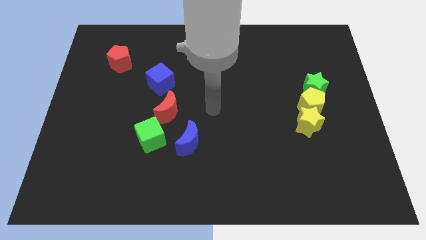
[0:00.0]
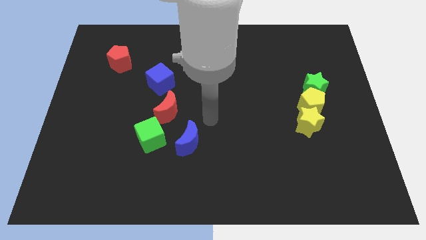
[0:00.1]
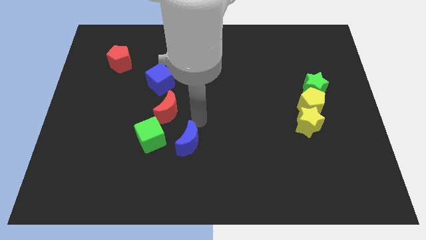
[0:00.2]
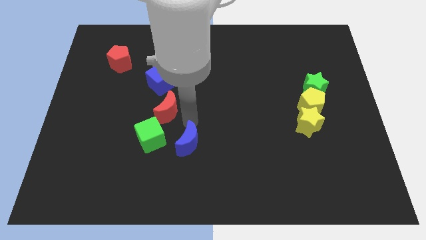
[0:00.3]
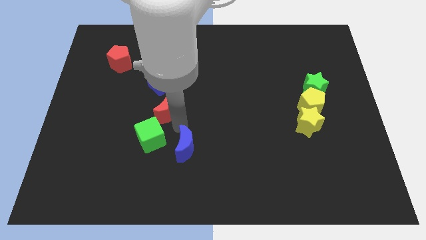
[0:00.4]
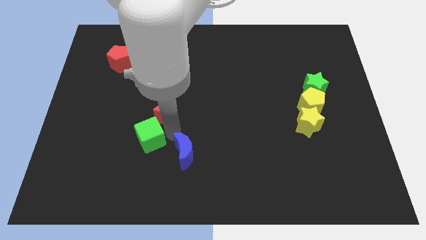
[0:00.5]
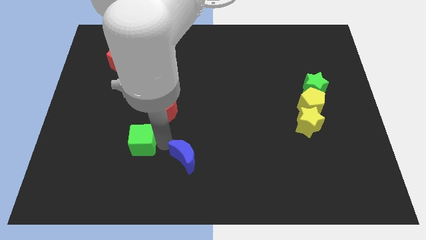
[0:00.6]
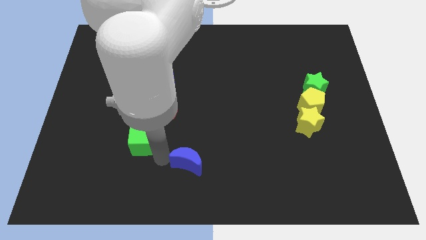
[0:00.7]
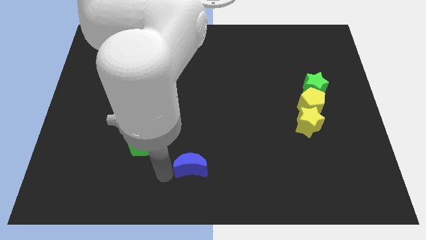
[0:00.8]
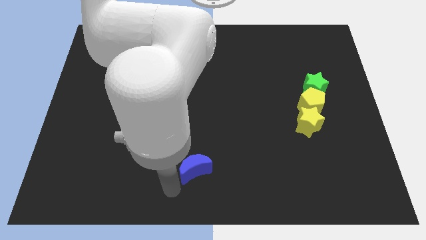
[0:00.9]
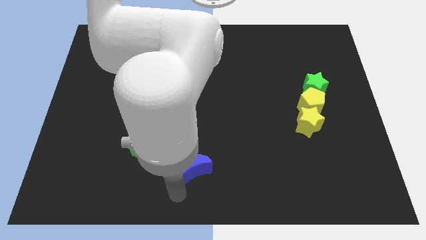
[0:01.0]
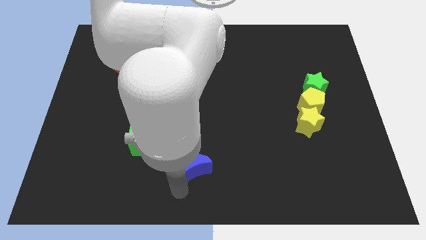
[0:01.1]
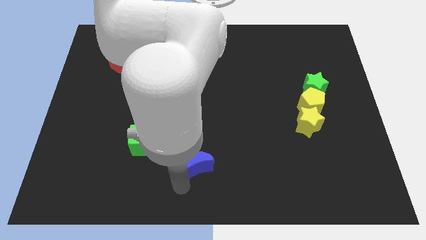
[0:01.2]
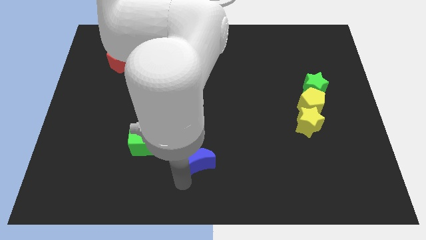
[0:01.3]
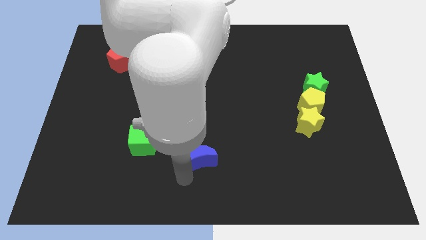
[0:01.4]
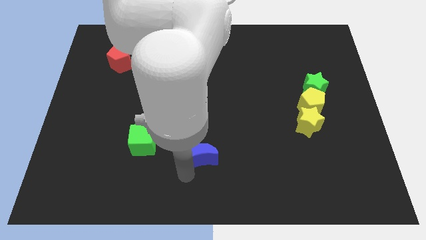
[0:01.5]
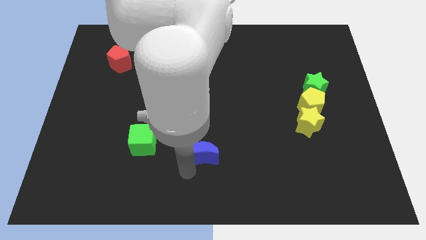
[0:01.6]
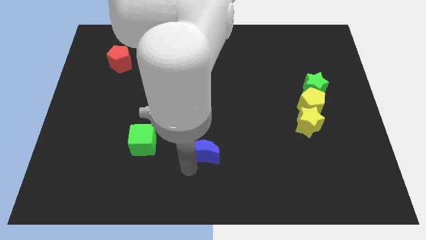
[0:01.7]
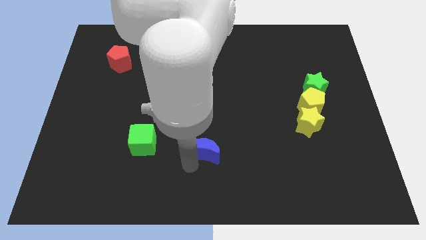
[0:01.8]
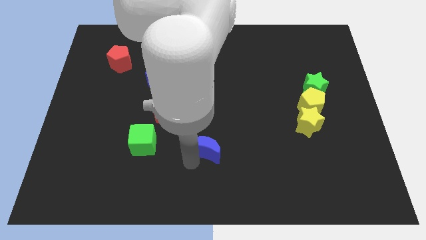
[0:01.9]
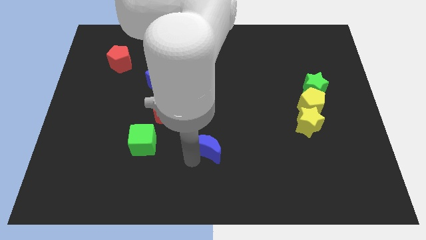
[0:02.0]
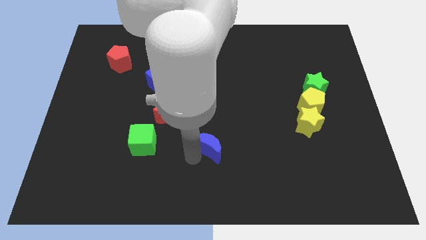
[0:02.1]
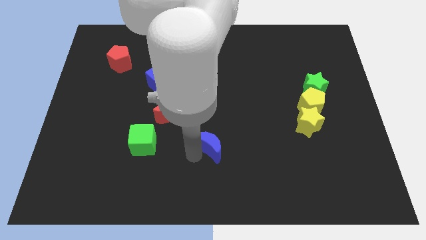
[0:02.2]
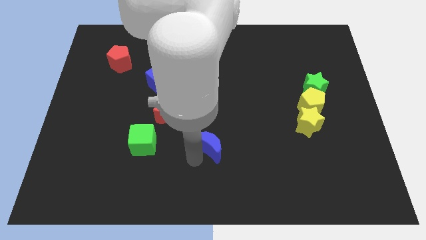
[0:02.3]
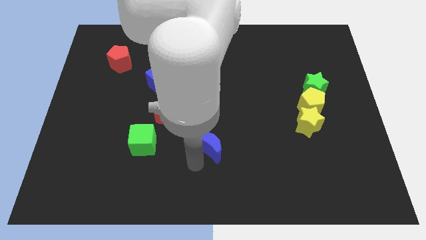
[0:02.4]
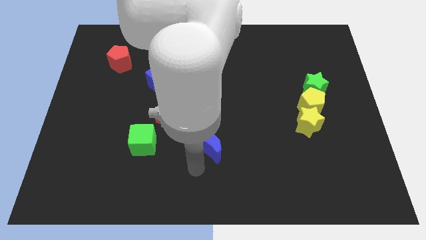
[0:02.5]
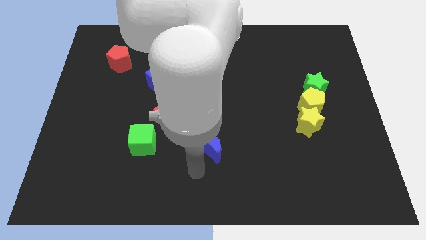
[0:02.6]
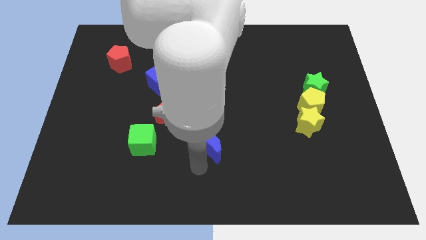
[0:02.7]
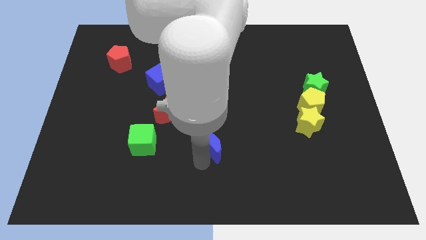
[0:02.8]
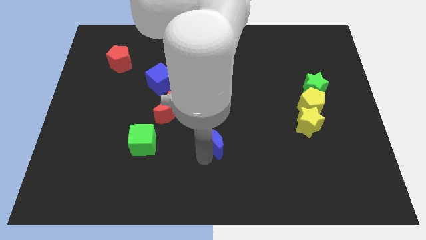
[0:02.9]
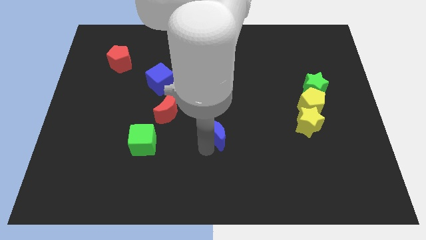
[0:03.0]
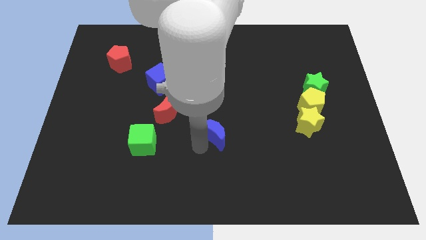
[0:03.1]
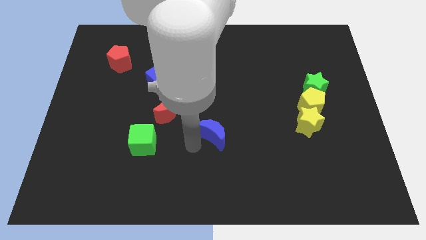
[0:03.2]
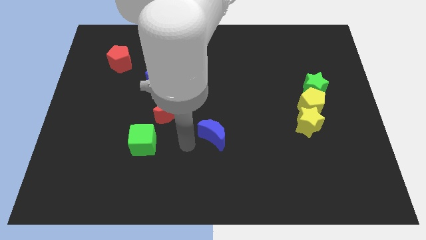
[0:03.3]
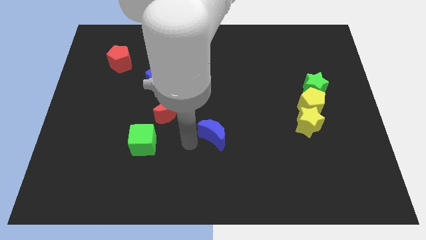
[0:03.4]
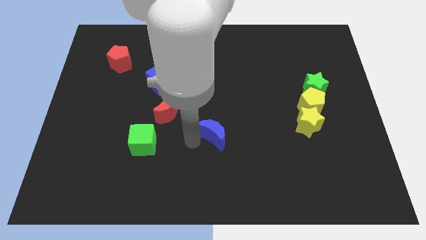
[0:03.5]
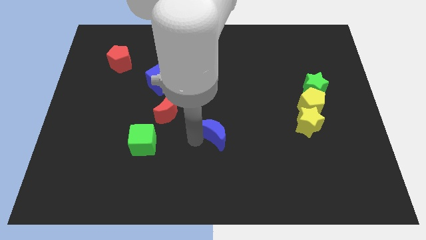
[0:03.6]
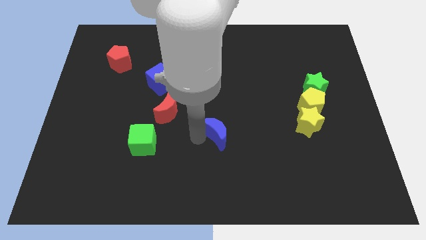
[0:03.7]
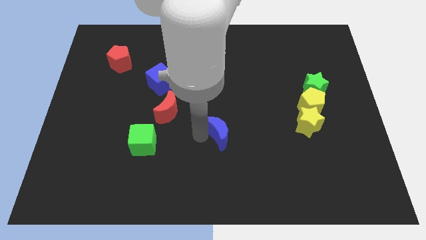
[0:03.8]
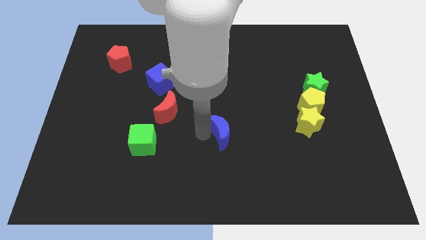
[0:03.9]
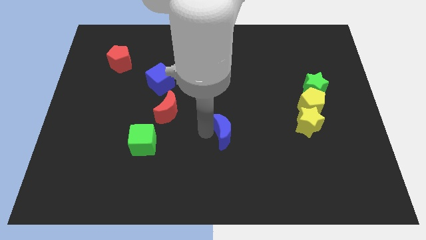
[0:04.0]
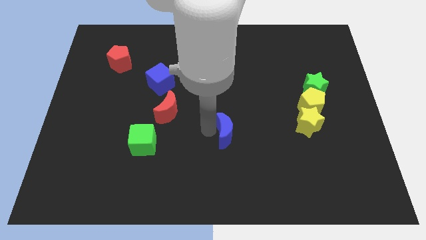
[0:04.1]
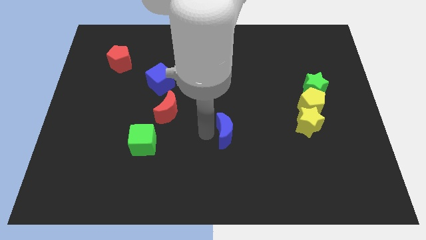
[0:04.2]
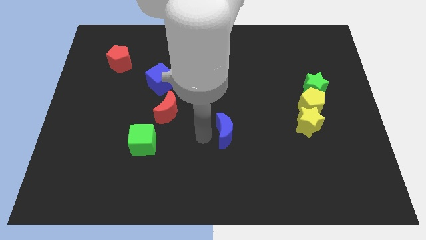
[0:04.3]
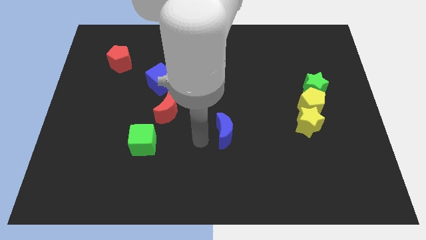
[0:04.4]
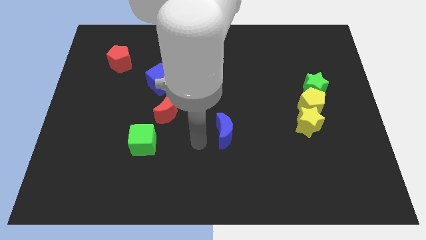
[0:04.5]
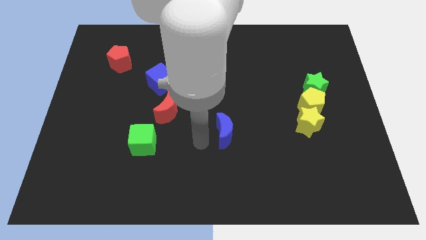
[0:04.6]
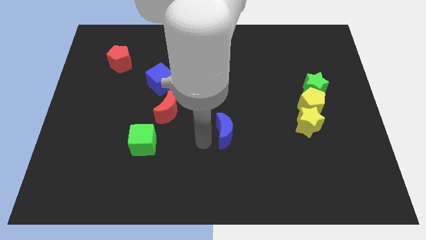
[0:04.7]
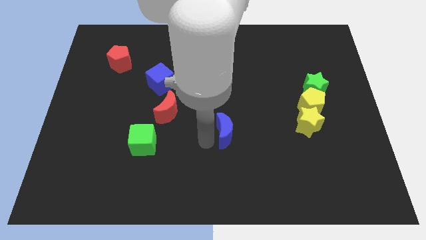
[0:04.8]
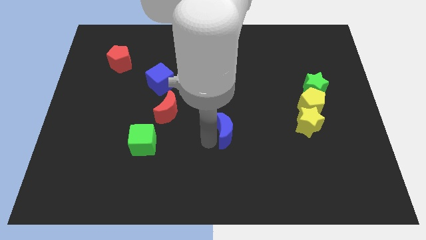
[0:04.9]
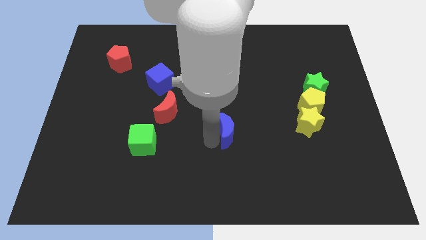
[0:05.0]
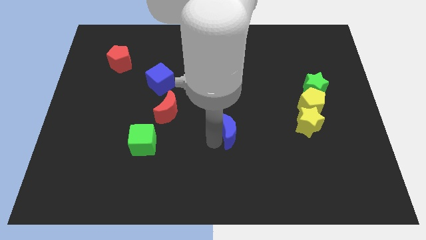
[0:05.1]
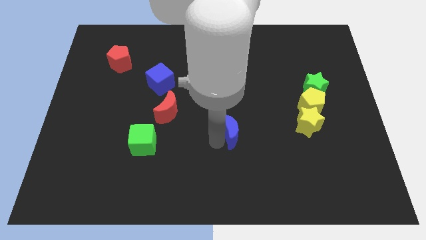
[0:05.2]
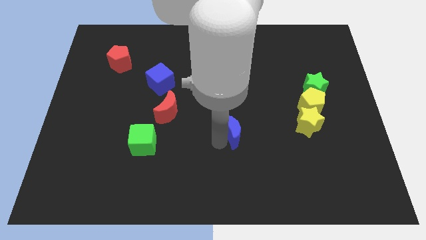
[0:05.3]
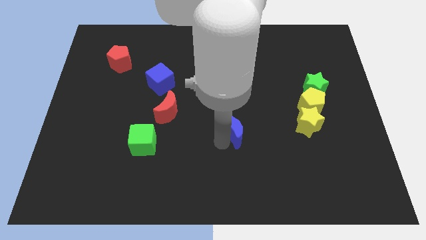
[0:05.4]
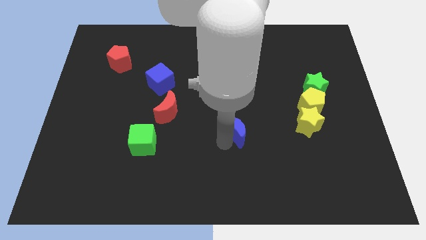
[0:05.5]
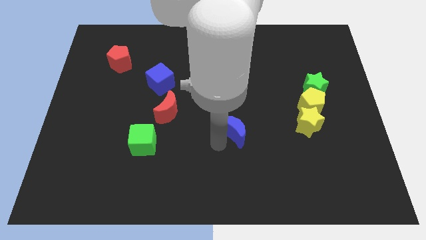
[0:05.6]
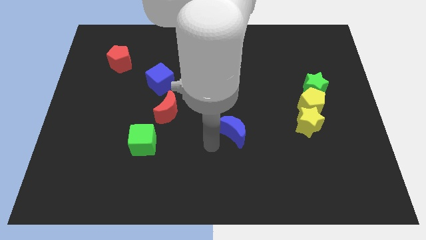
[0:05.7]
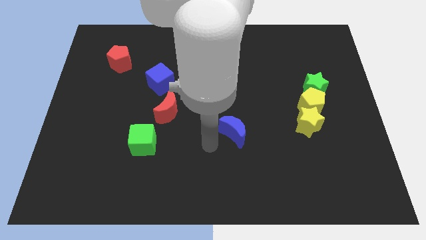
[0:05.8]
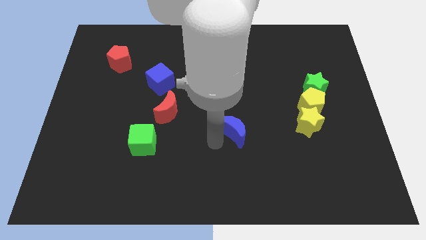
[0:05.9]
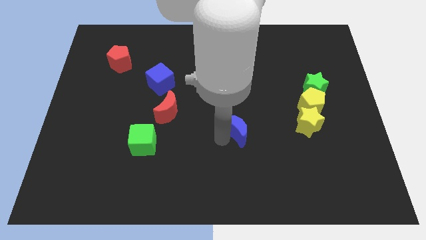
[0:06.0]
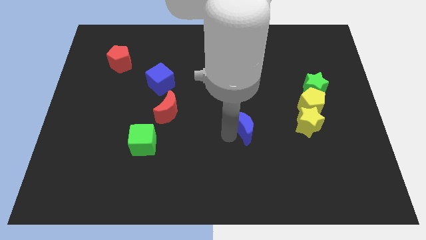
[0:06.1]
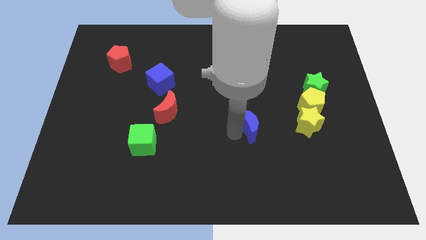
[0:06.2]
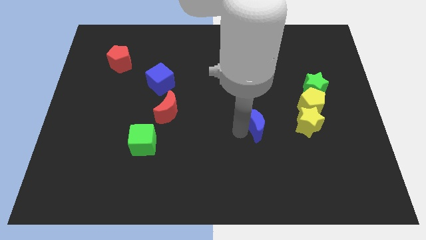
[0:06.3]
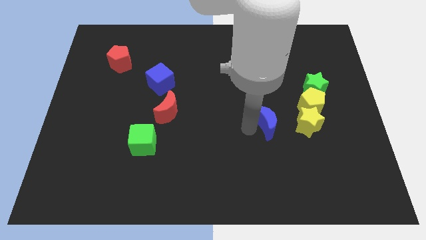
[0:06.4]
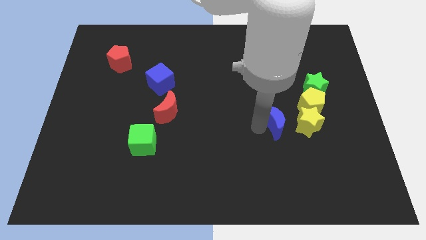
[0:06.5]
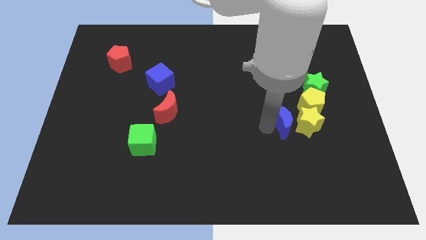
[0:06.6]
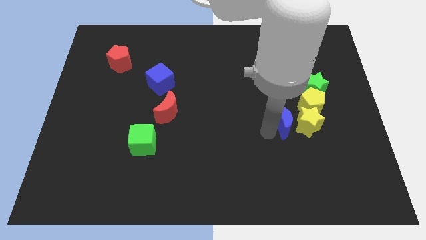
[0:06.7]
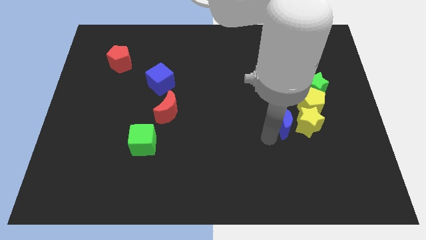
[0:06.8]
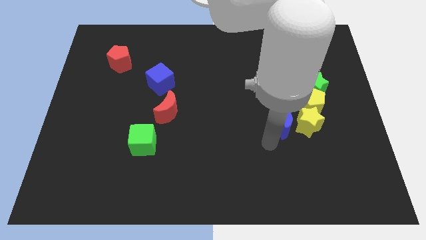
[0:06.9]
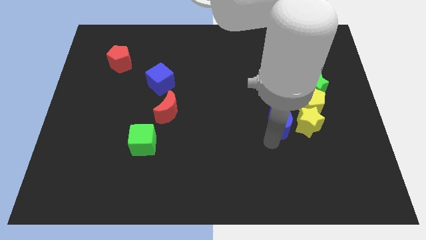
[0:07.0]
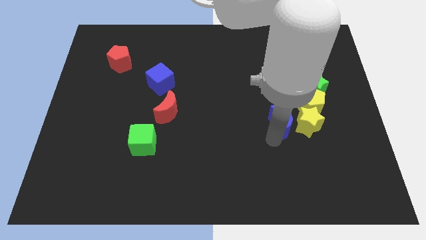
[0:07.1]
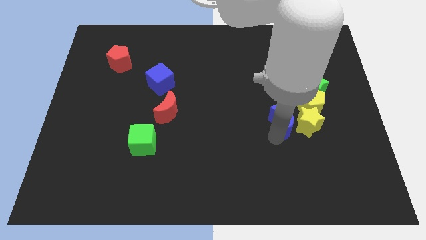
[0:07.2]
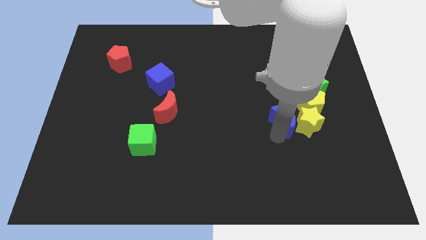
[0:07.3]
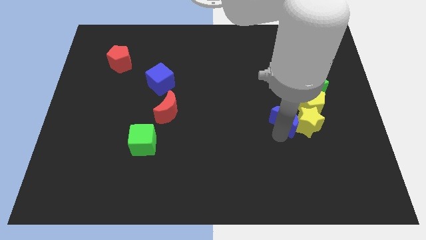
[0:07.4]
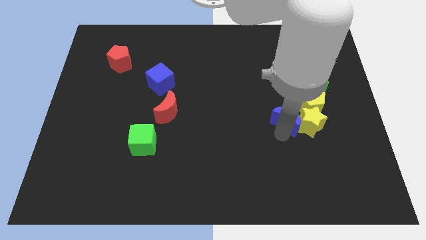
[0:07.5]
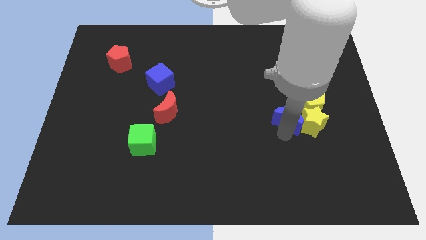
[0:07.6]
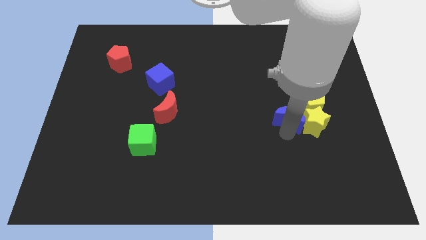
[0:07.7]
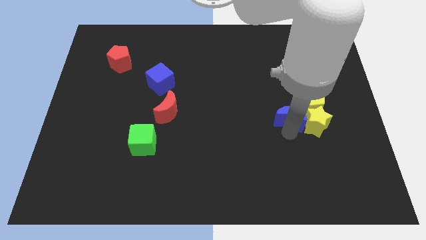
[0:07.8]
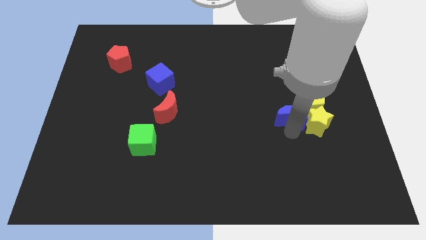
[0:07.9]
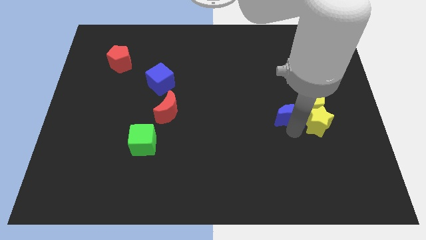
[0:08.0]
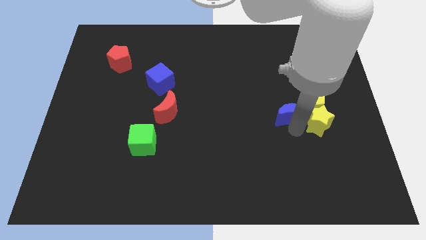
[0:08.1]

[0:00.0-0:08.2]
slide the blue moon to the yellow pentagon
